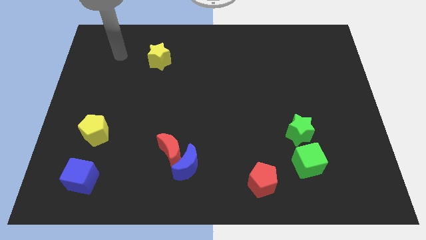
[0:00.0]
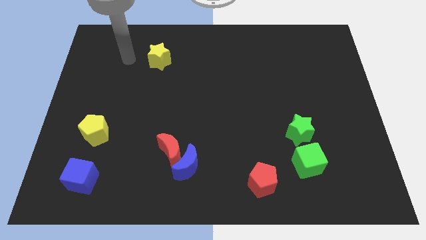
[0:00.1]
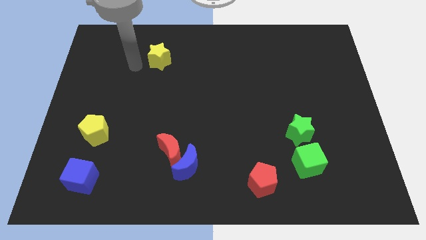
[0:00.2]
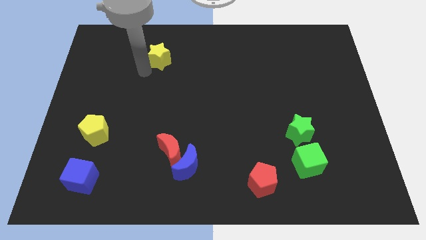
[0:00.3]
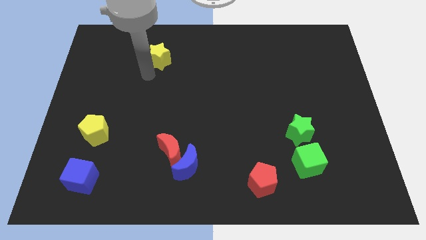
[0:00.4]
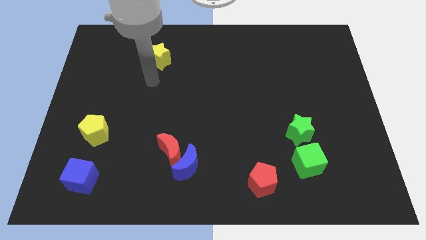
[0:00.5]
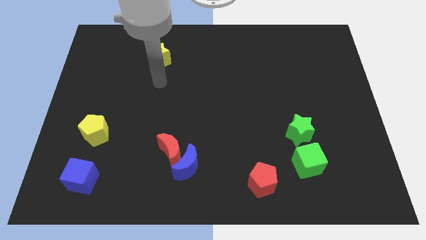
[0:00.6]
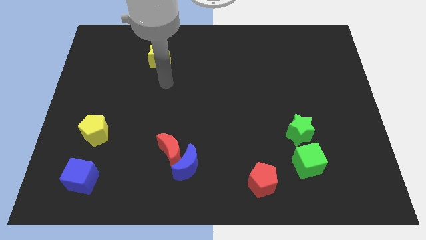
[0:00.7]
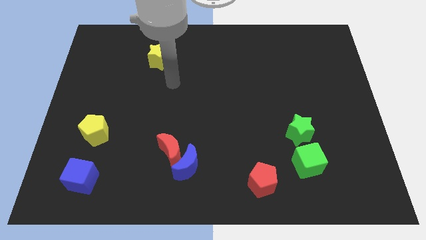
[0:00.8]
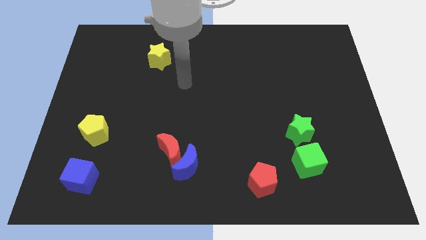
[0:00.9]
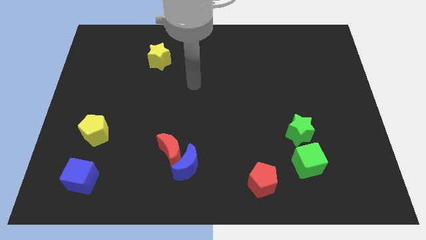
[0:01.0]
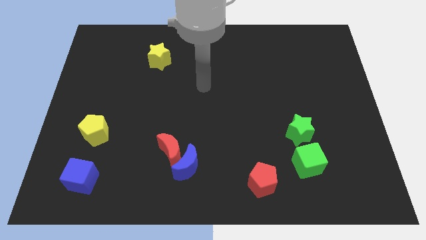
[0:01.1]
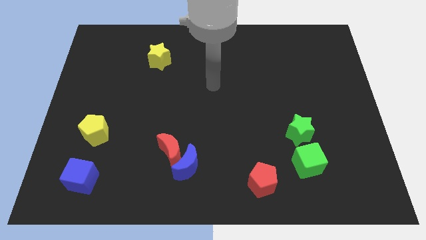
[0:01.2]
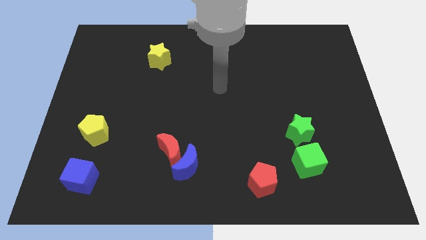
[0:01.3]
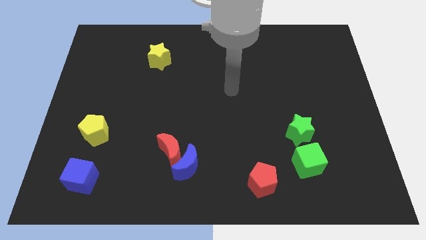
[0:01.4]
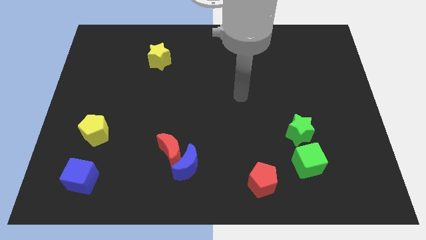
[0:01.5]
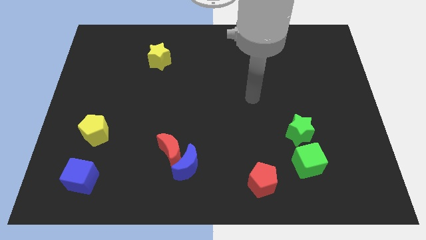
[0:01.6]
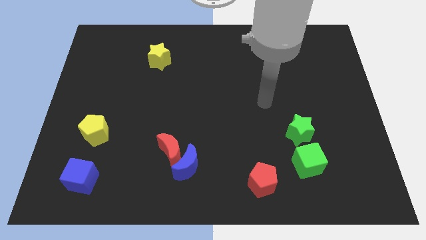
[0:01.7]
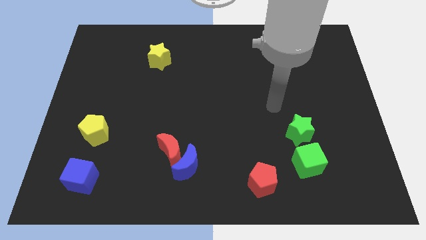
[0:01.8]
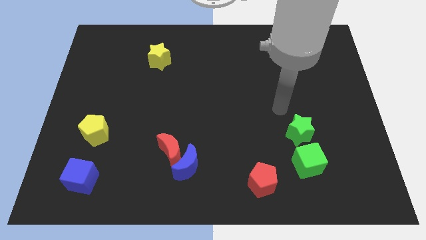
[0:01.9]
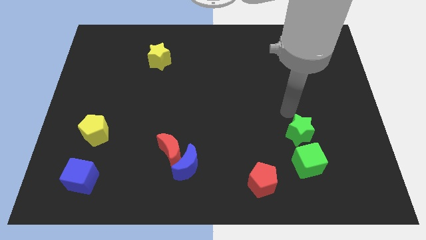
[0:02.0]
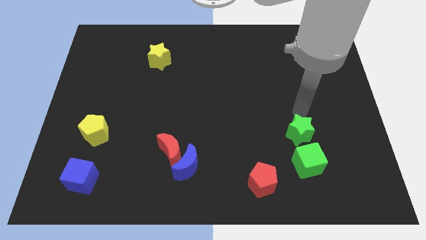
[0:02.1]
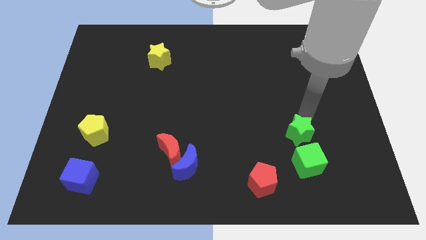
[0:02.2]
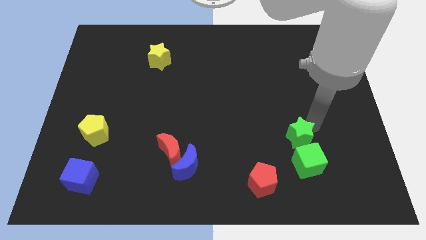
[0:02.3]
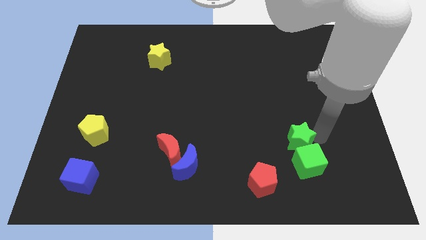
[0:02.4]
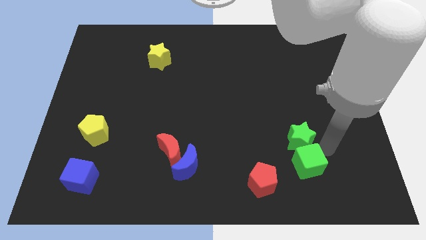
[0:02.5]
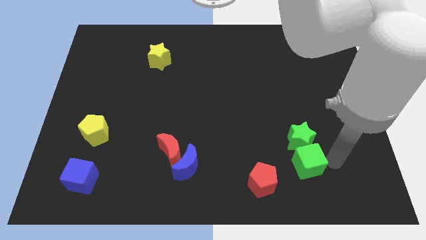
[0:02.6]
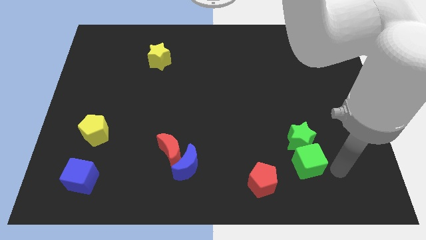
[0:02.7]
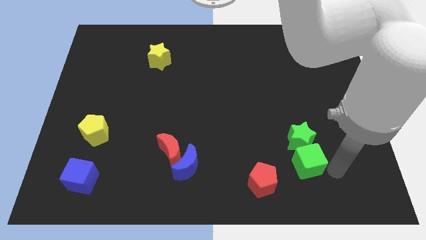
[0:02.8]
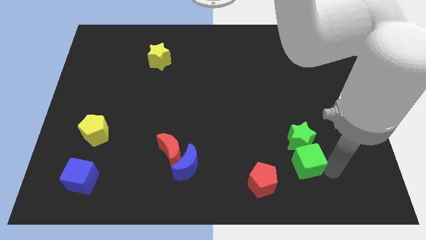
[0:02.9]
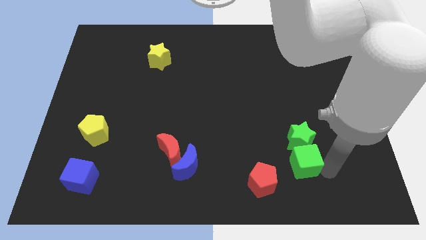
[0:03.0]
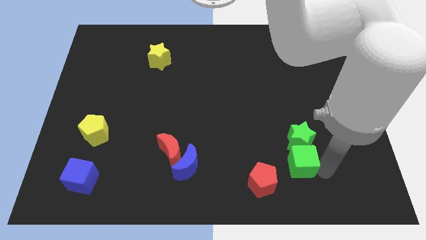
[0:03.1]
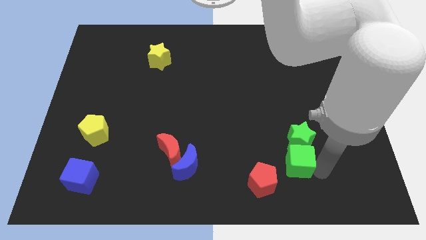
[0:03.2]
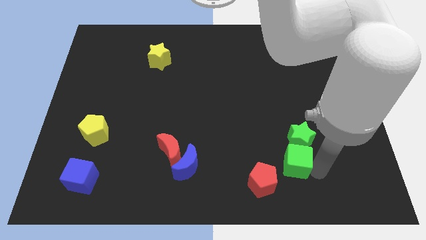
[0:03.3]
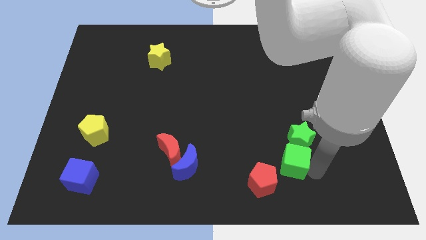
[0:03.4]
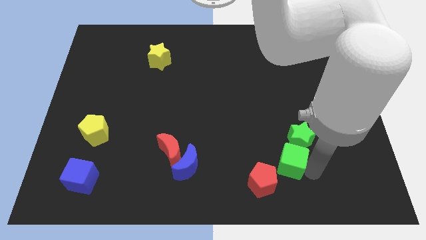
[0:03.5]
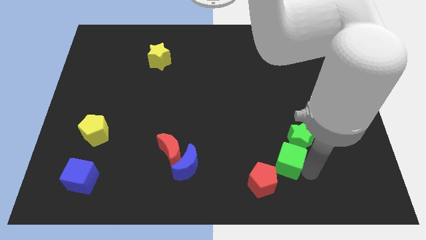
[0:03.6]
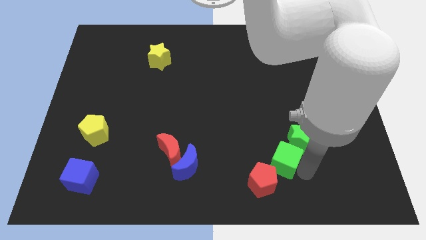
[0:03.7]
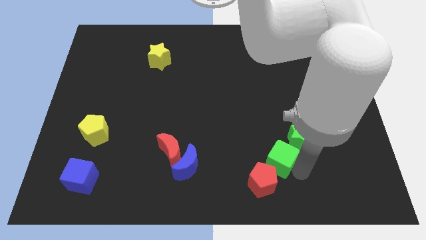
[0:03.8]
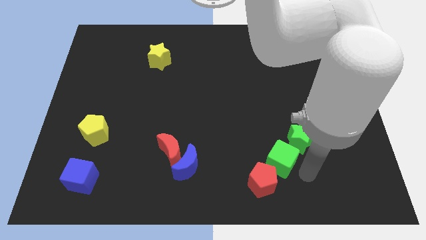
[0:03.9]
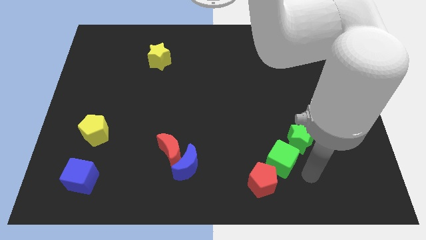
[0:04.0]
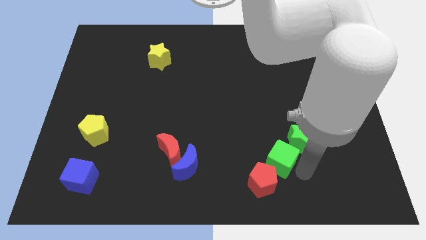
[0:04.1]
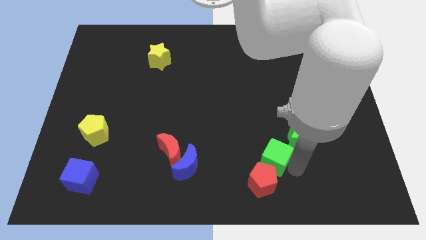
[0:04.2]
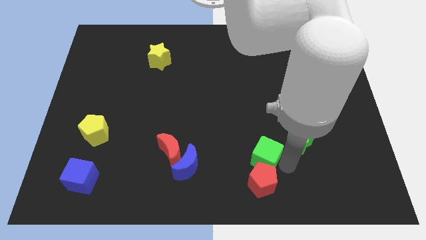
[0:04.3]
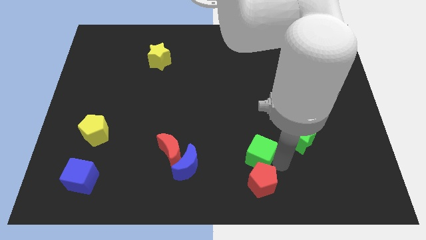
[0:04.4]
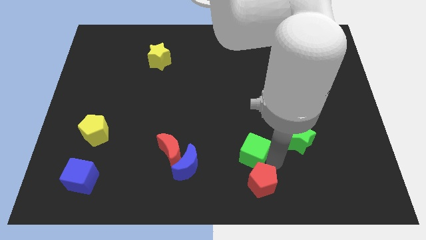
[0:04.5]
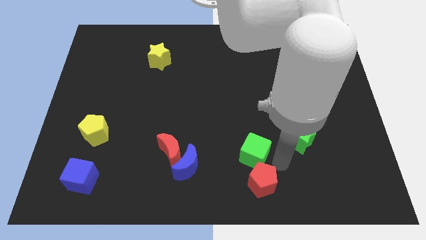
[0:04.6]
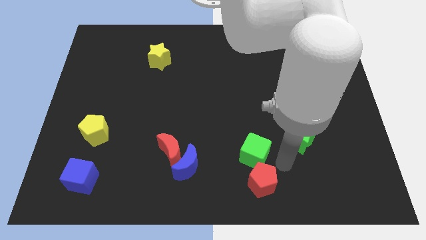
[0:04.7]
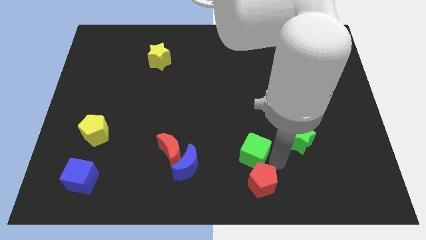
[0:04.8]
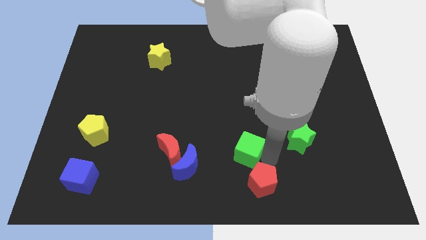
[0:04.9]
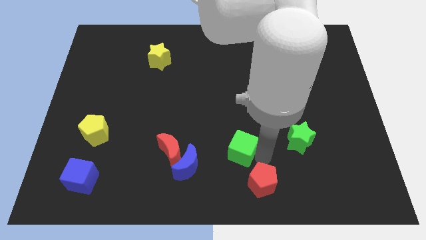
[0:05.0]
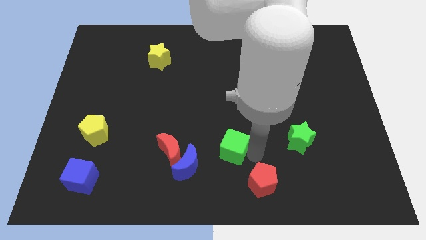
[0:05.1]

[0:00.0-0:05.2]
put the green cube to the top right of the blue moon

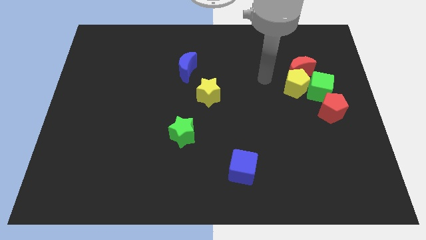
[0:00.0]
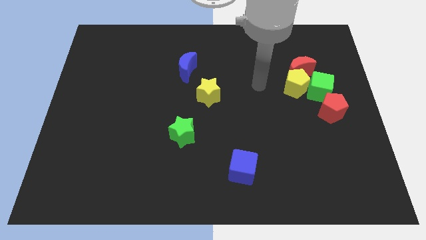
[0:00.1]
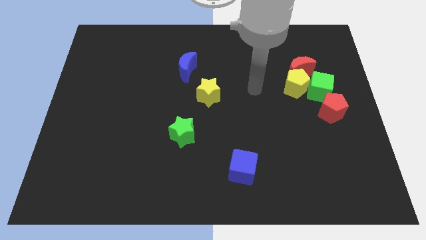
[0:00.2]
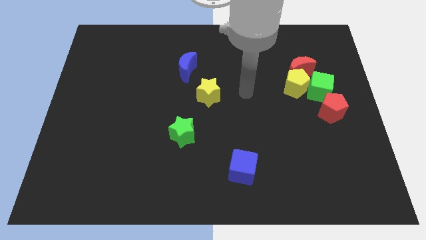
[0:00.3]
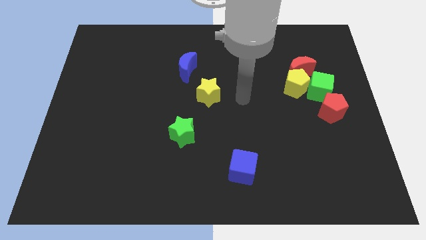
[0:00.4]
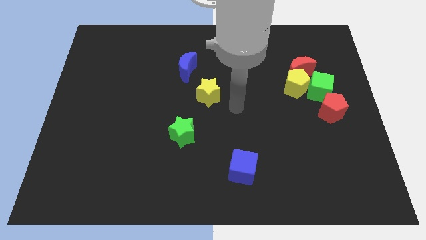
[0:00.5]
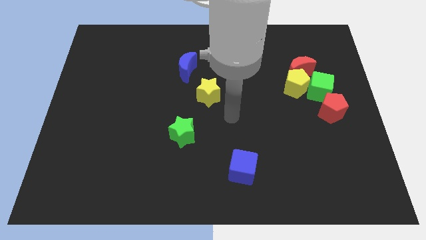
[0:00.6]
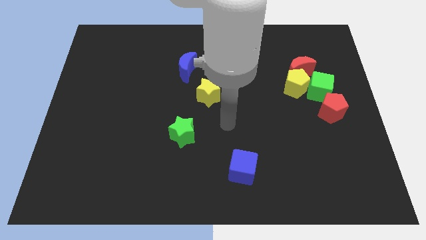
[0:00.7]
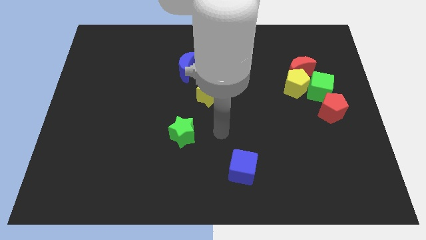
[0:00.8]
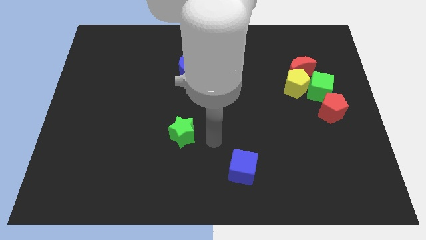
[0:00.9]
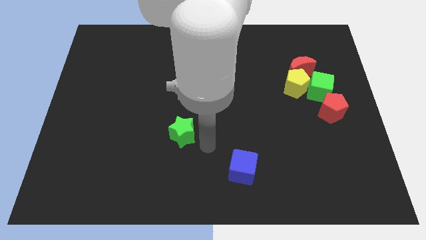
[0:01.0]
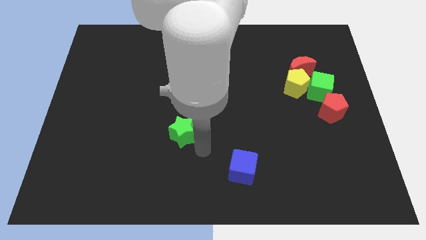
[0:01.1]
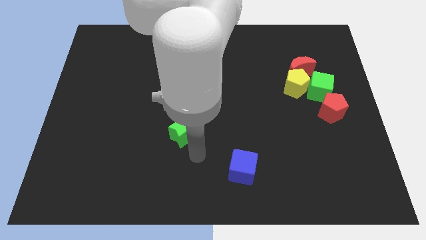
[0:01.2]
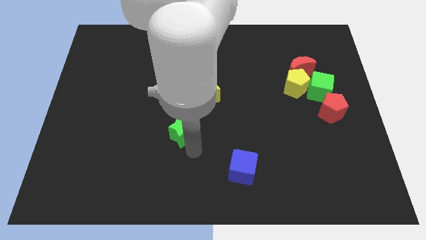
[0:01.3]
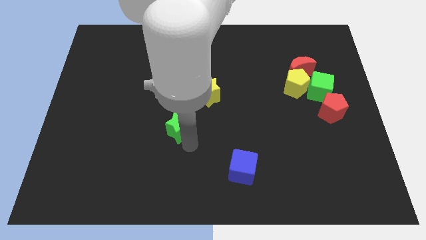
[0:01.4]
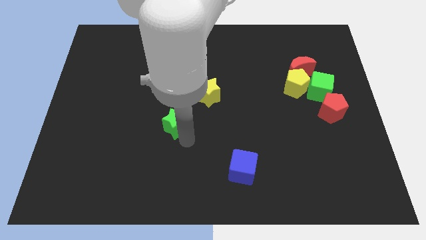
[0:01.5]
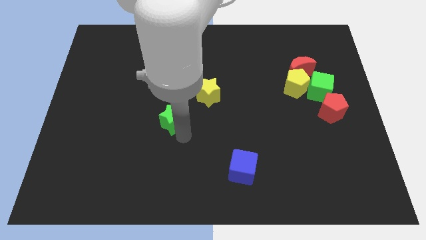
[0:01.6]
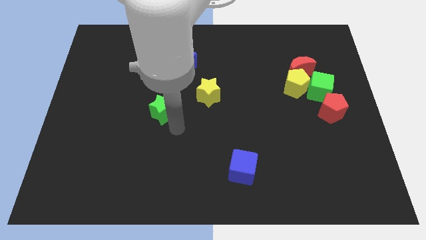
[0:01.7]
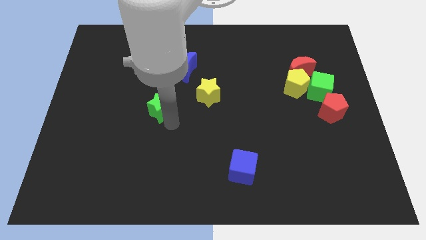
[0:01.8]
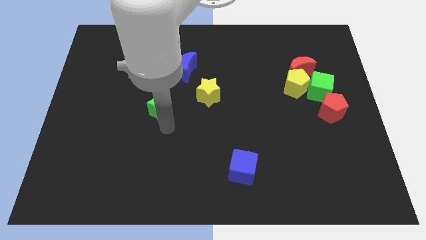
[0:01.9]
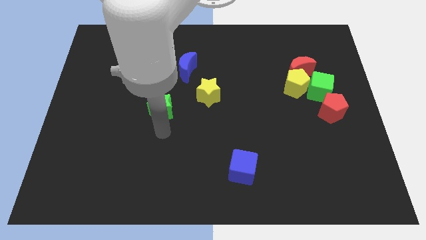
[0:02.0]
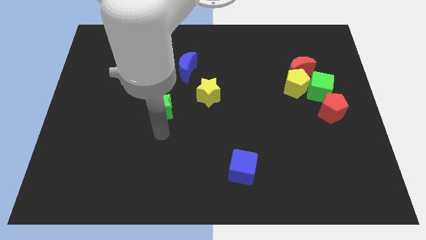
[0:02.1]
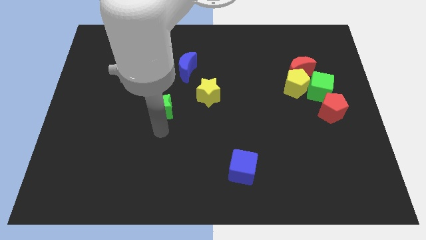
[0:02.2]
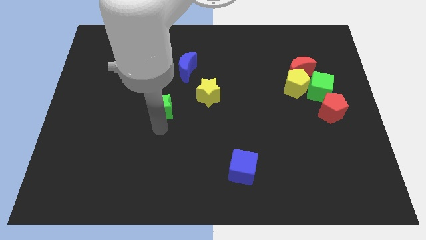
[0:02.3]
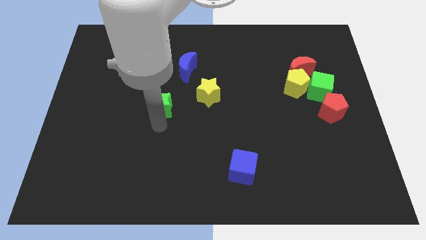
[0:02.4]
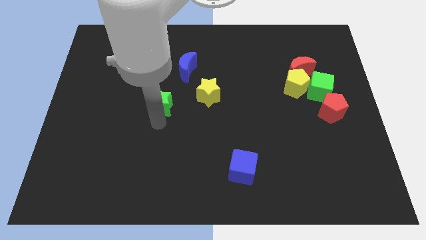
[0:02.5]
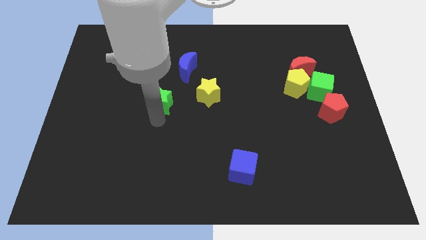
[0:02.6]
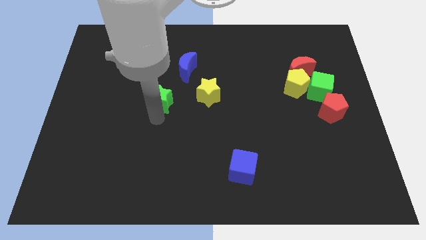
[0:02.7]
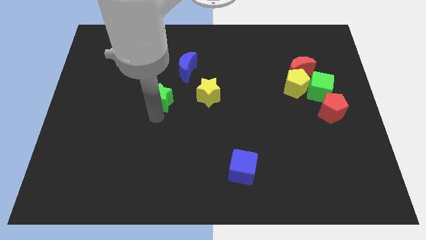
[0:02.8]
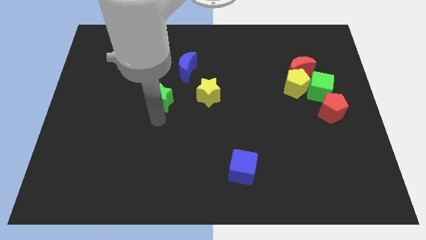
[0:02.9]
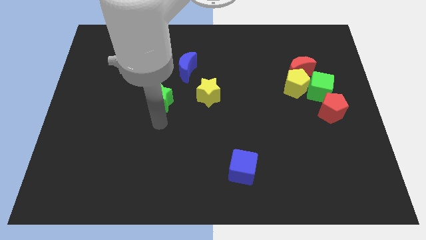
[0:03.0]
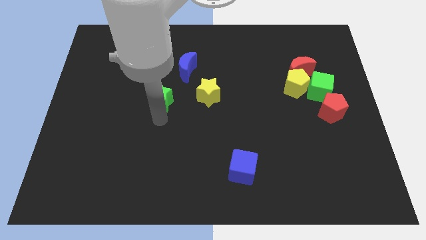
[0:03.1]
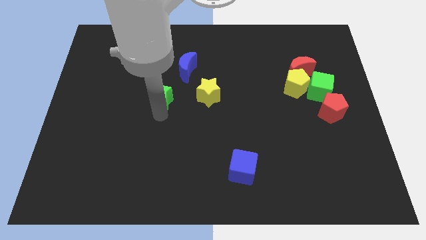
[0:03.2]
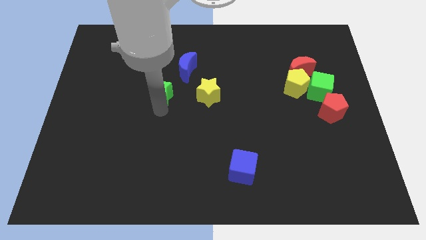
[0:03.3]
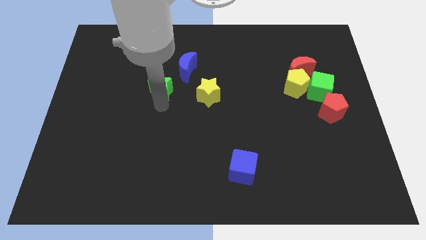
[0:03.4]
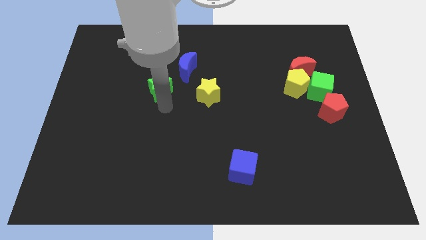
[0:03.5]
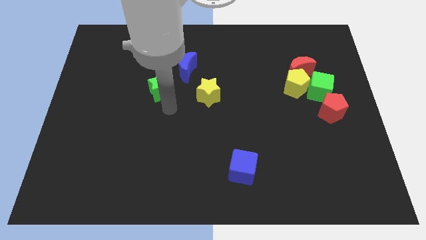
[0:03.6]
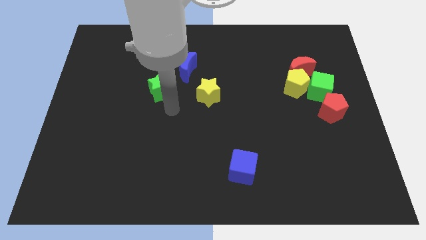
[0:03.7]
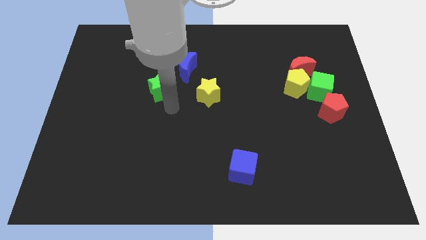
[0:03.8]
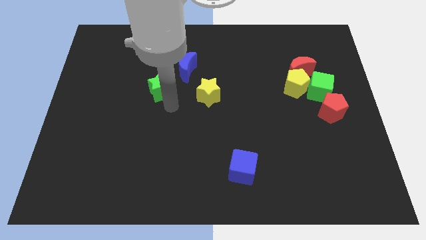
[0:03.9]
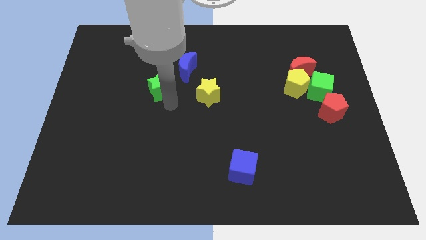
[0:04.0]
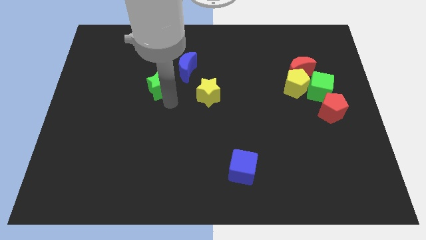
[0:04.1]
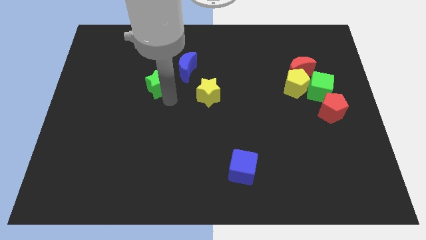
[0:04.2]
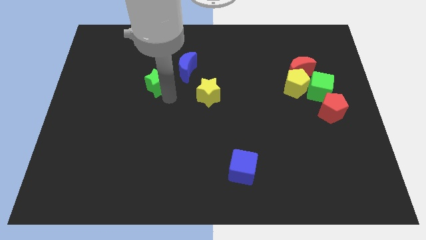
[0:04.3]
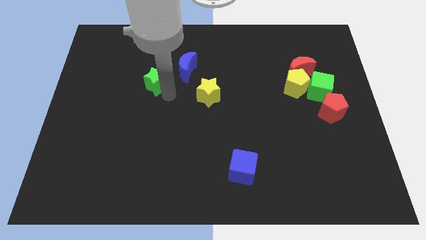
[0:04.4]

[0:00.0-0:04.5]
slide the green star just left of the blue moon
